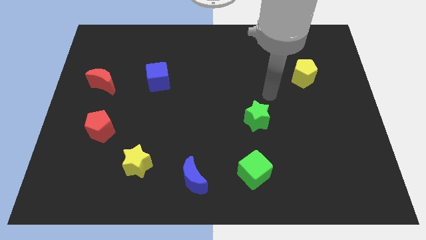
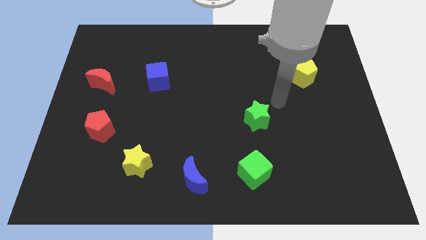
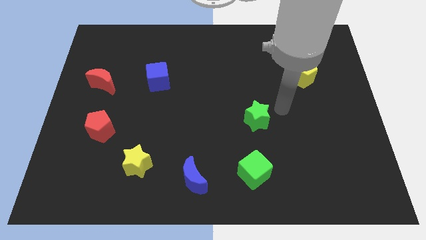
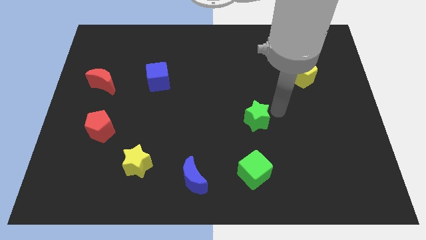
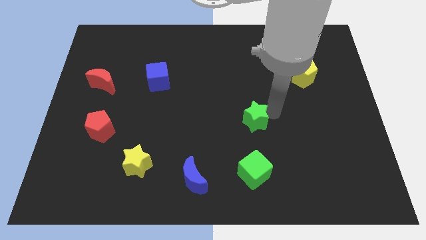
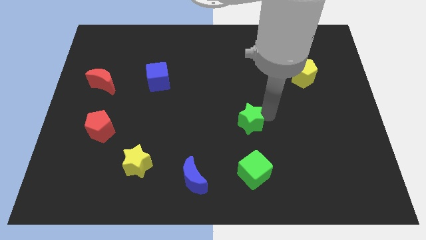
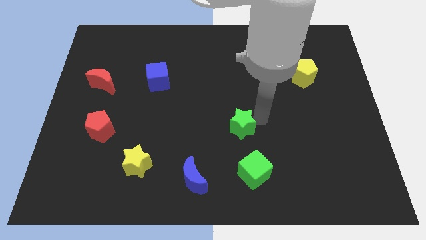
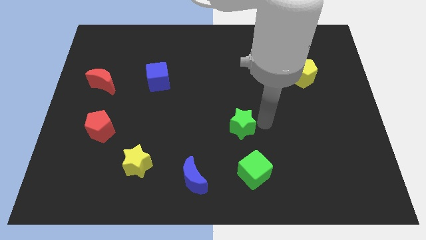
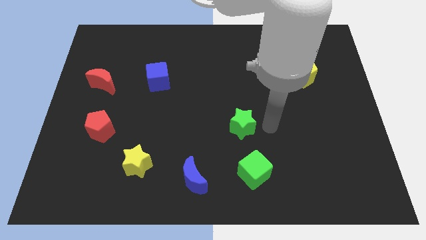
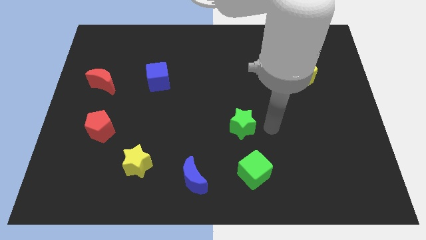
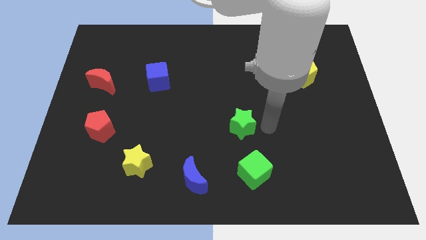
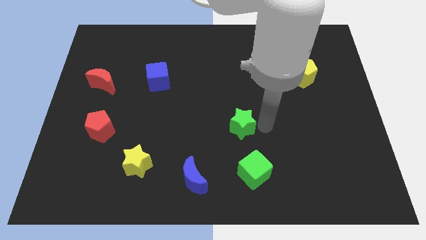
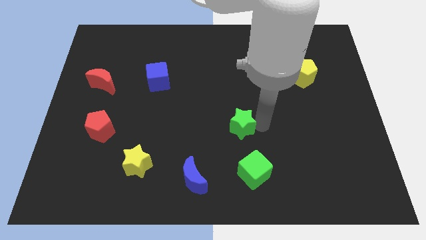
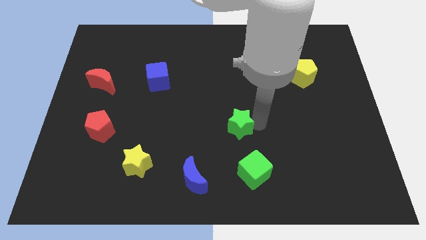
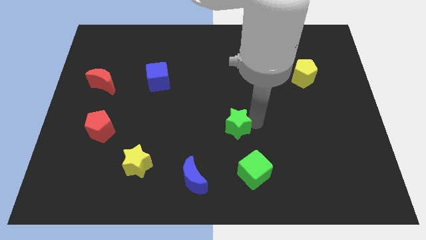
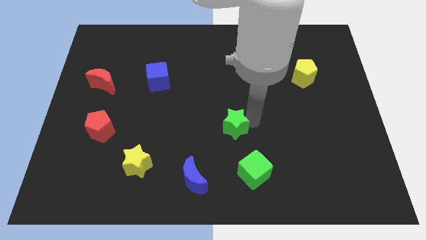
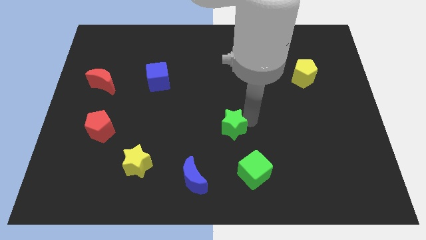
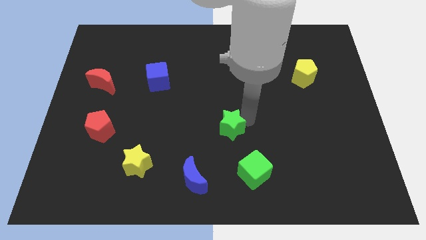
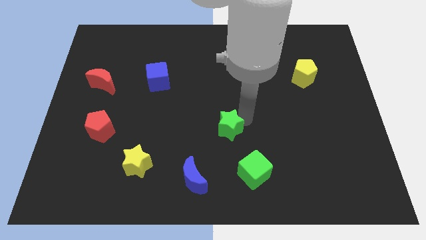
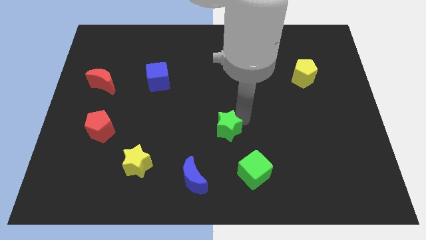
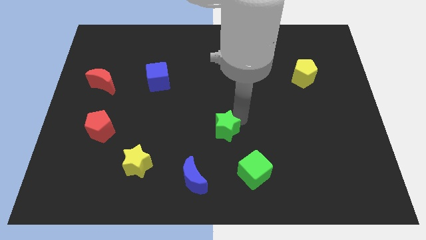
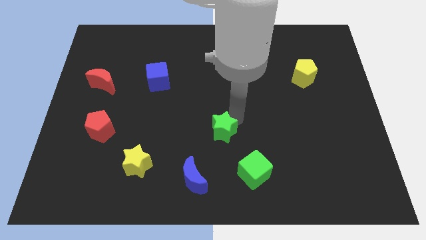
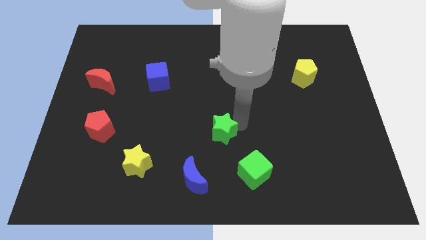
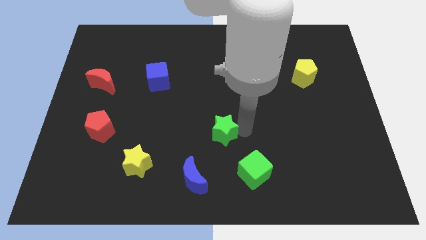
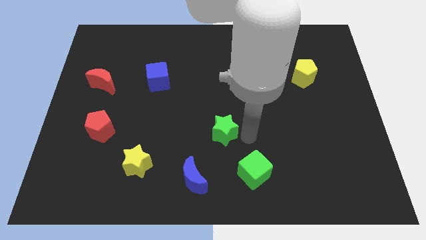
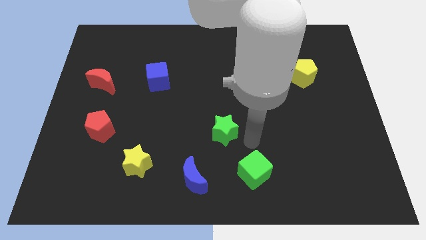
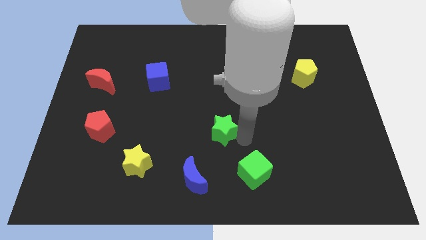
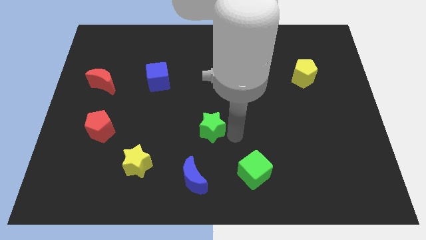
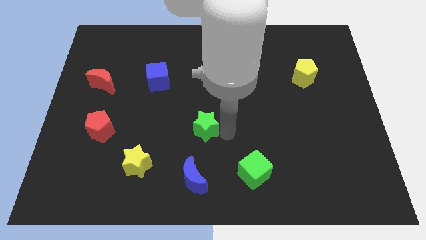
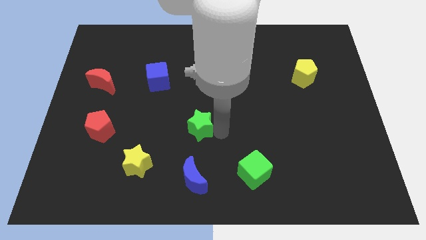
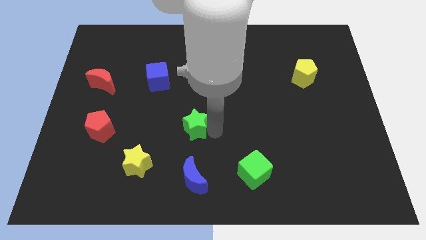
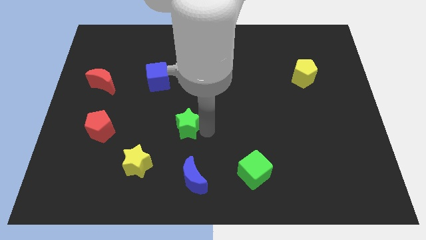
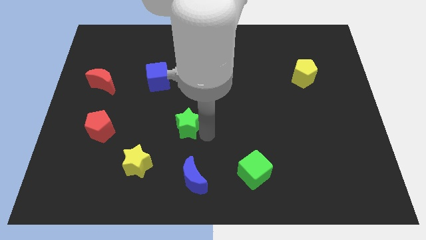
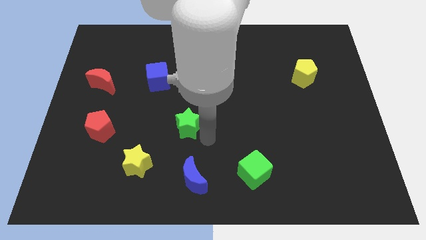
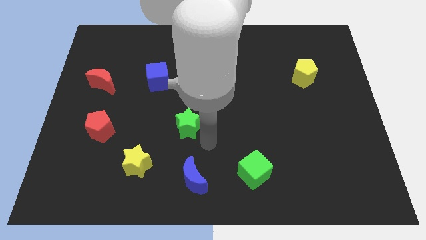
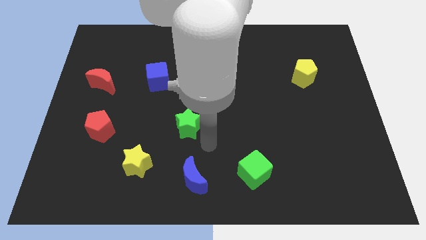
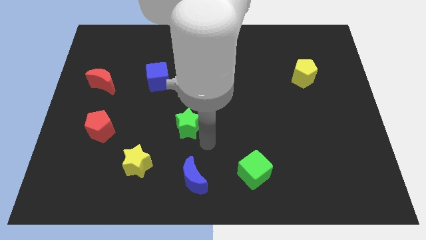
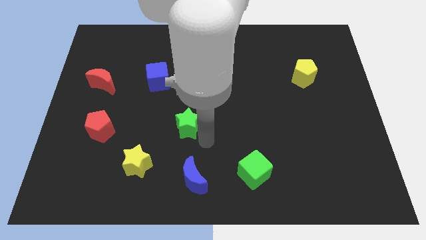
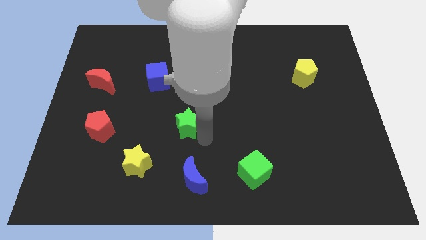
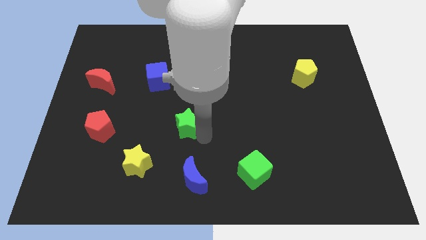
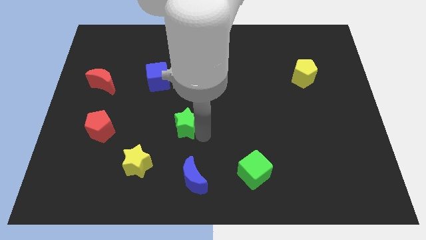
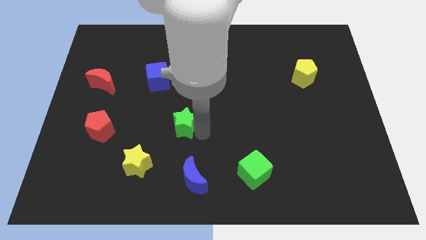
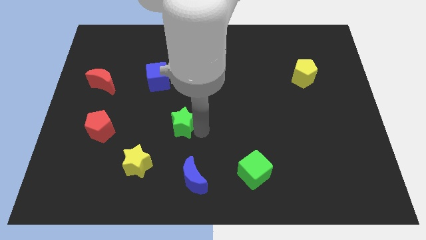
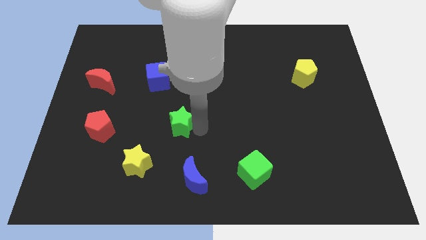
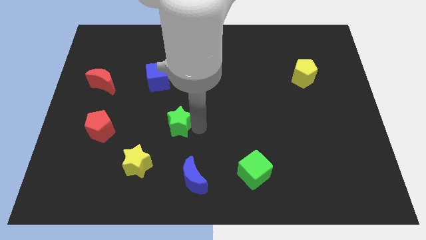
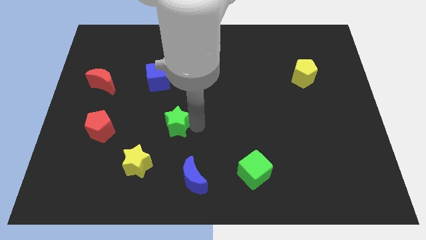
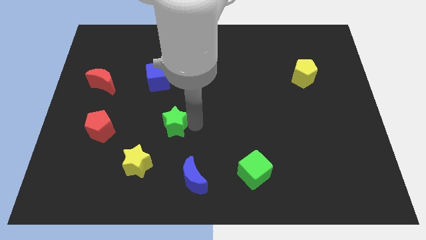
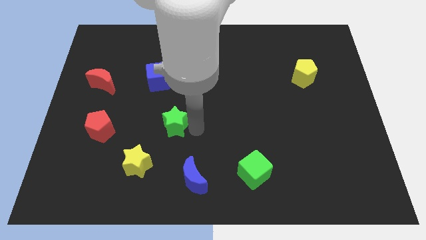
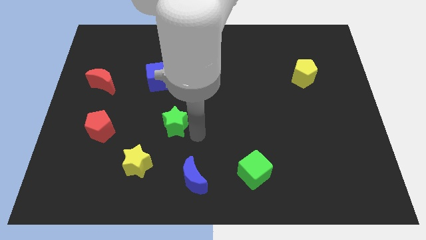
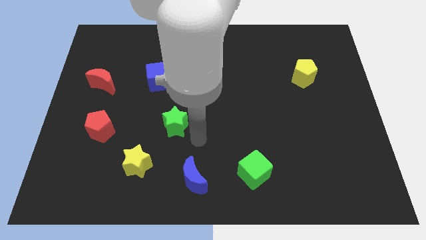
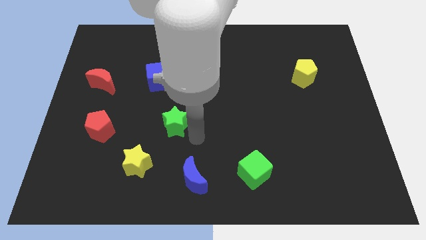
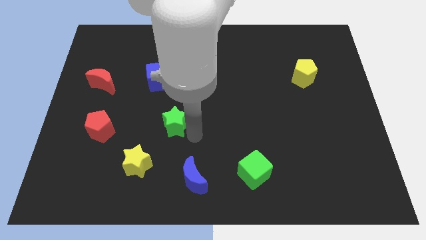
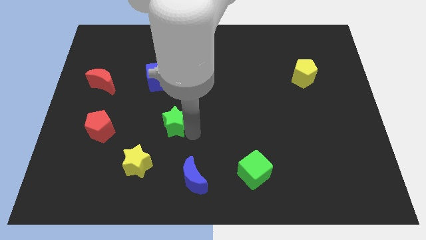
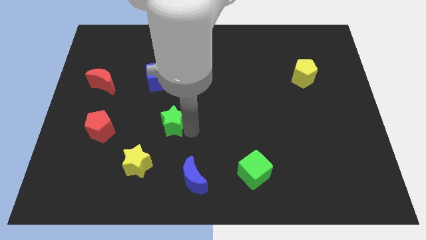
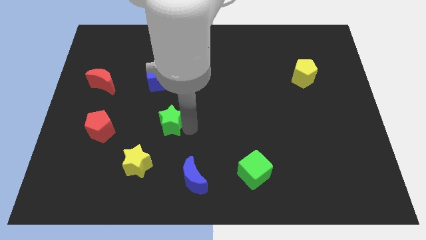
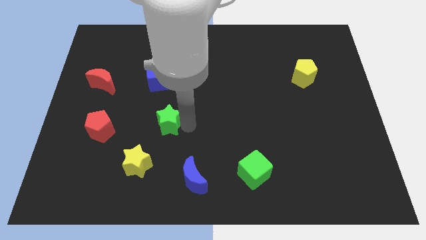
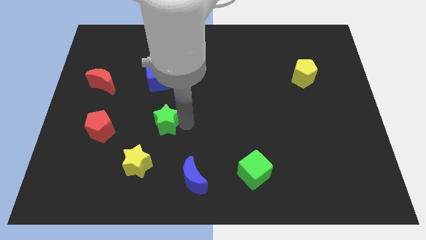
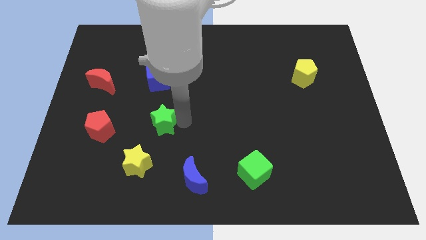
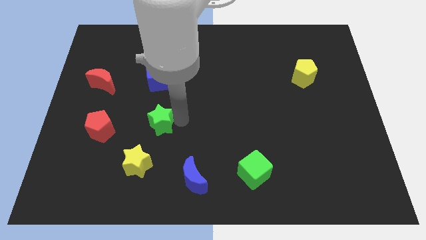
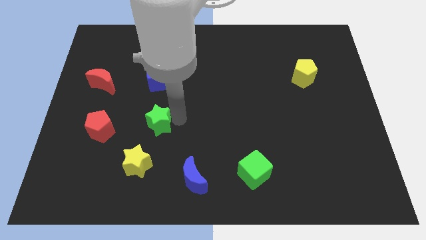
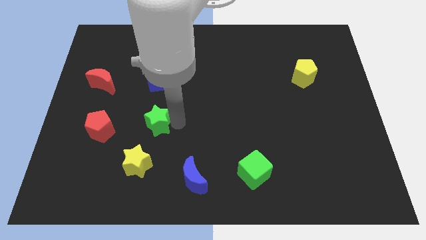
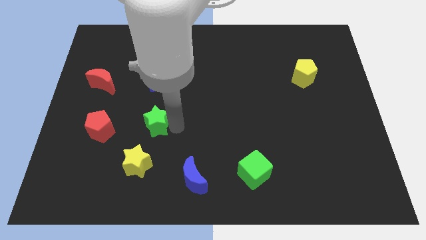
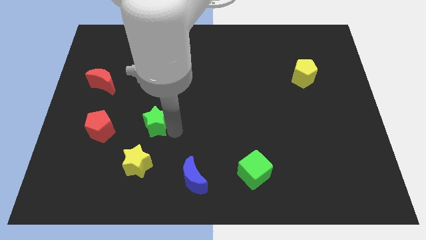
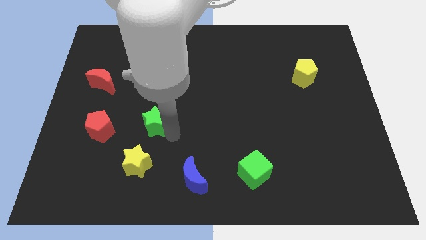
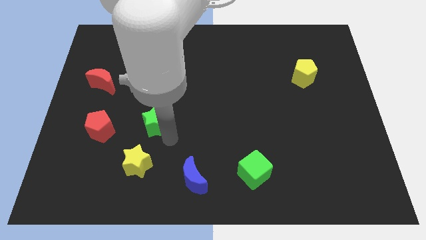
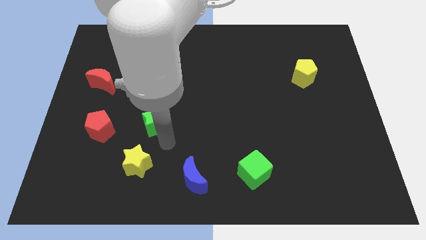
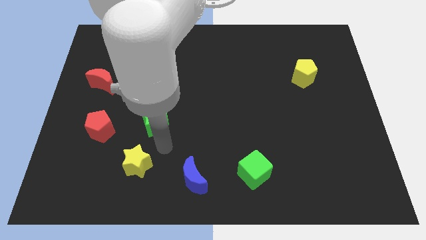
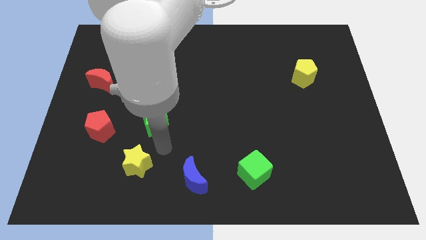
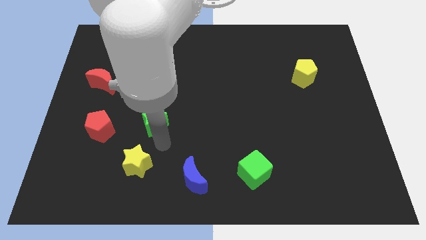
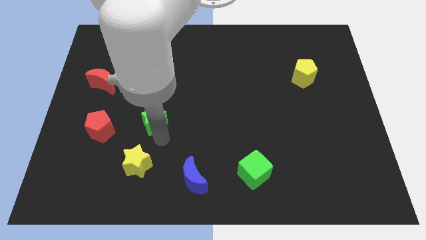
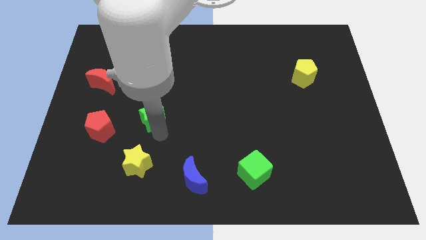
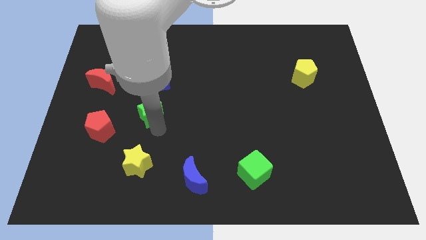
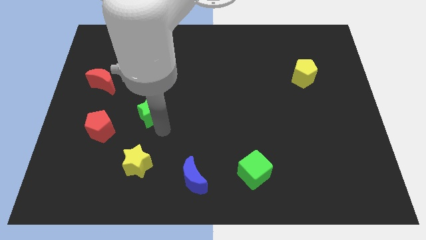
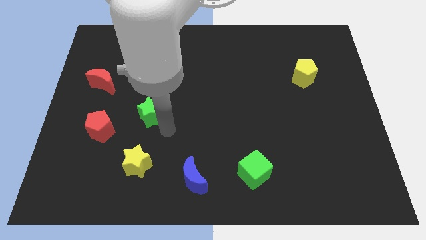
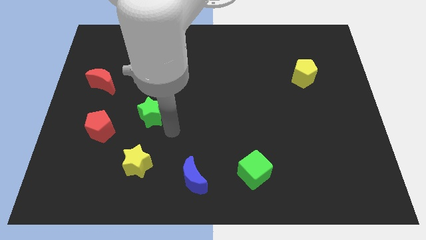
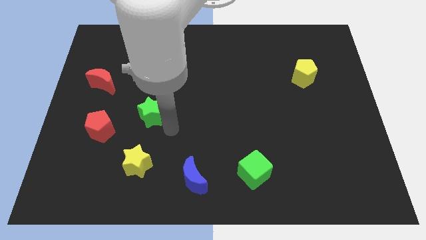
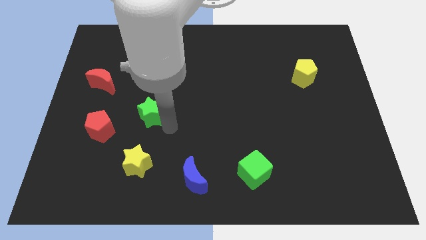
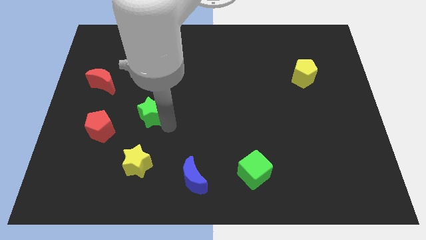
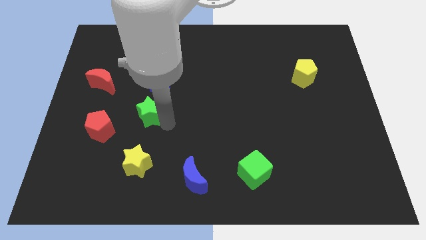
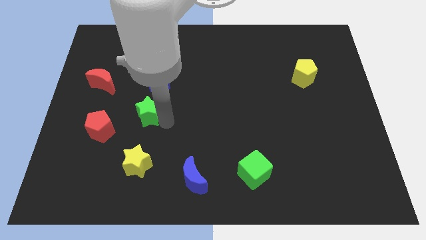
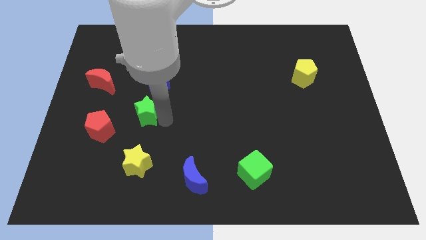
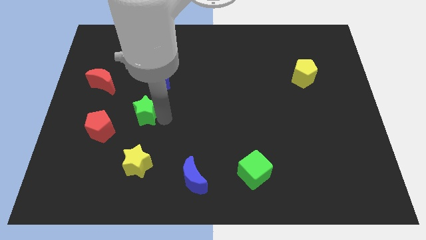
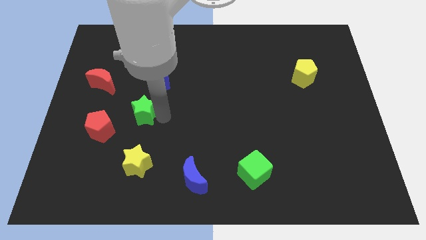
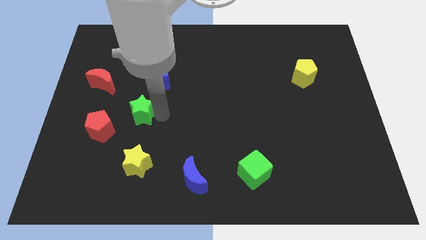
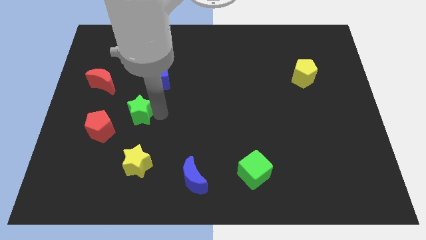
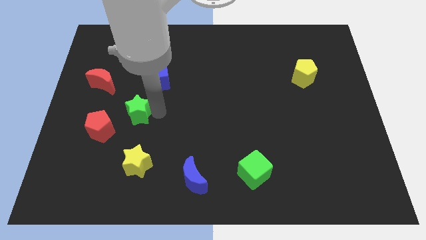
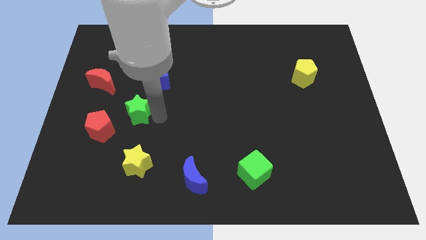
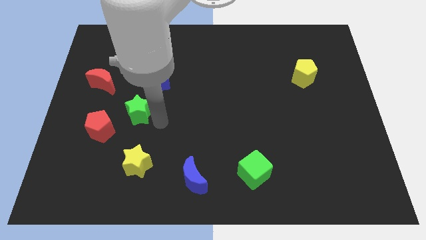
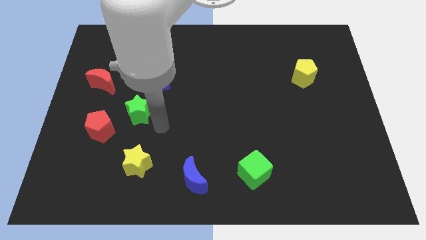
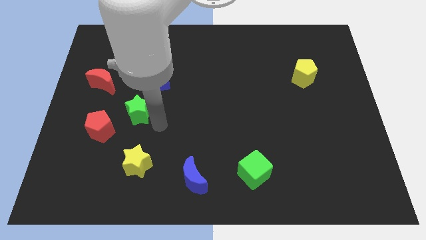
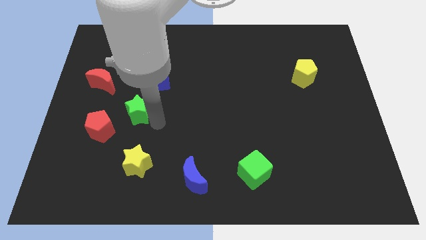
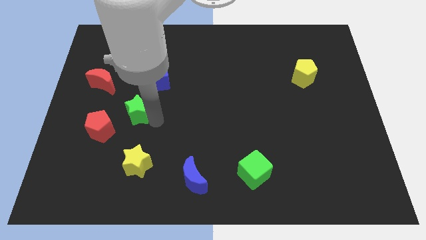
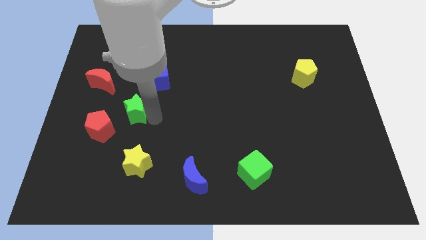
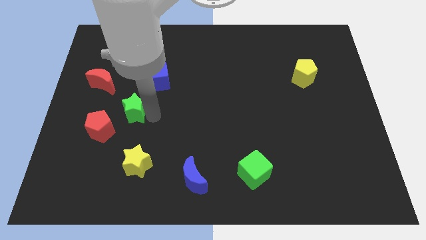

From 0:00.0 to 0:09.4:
move the green star to the bottom right side of the red moon
